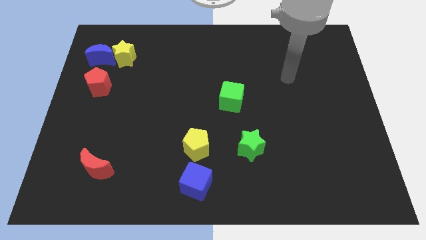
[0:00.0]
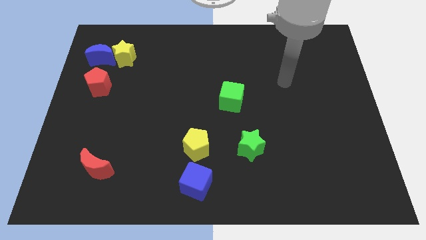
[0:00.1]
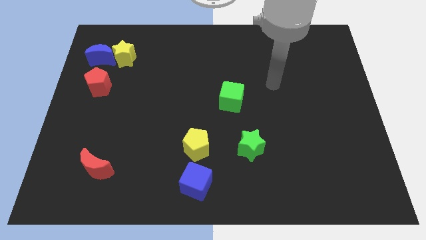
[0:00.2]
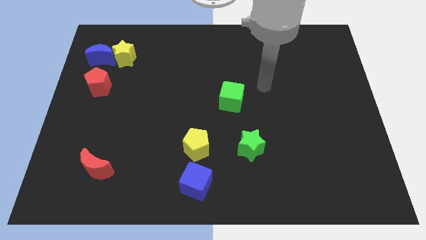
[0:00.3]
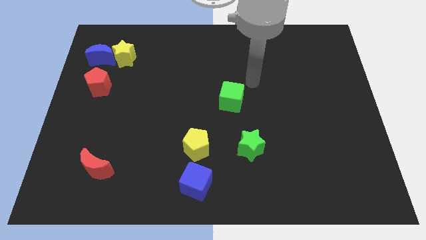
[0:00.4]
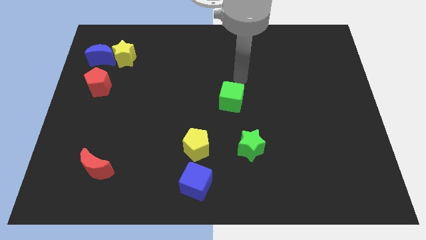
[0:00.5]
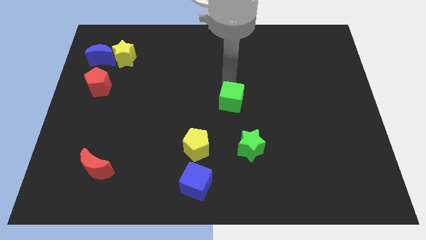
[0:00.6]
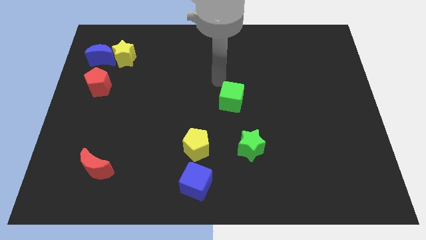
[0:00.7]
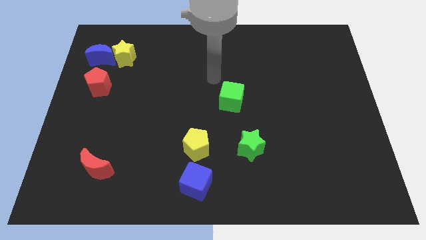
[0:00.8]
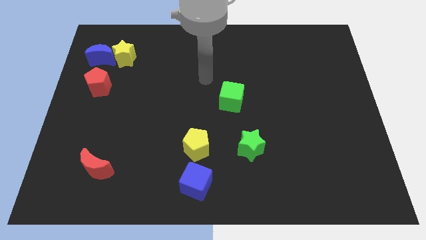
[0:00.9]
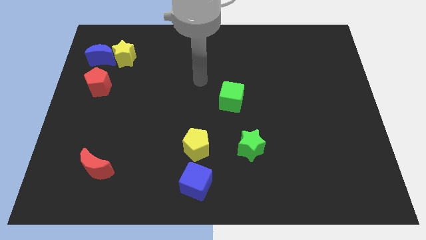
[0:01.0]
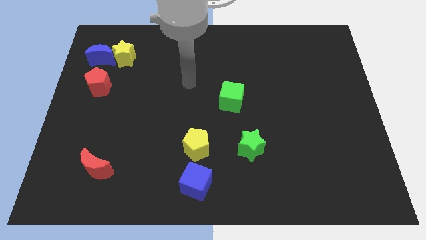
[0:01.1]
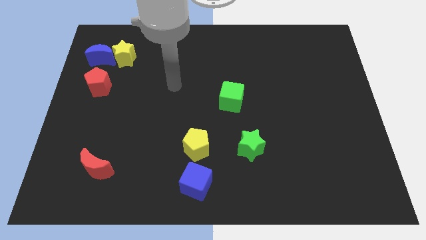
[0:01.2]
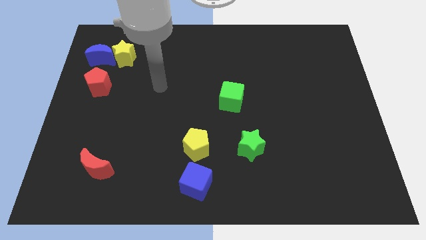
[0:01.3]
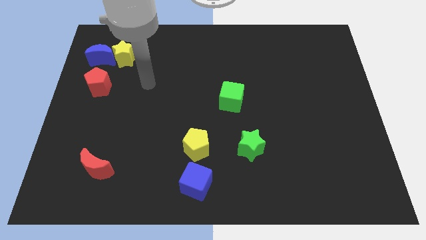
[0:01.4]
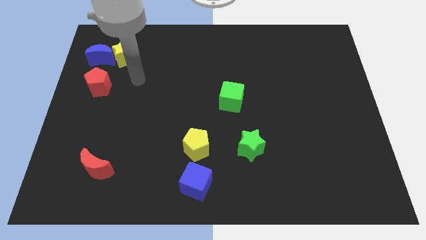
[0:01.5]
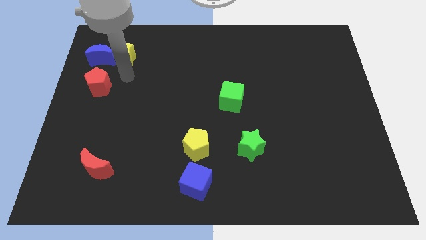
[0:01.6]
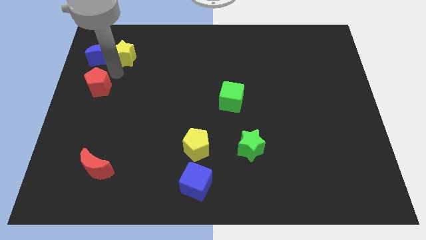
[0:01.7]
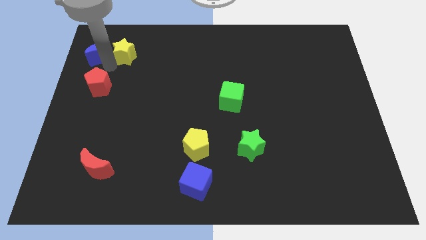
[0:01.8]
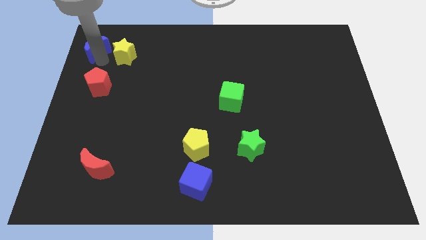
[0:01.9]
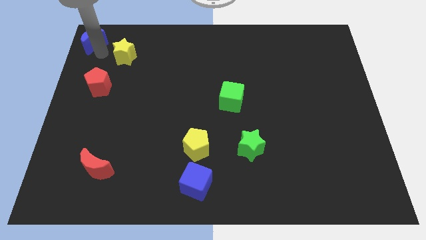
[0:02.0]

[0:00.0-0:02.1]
move the yellow star away from the blue moon

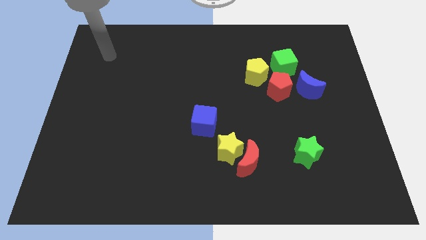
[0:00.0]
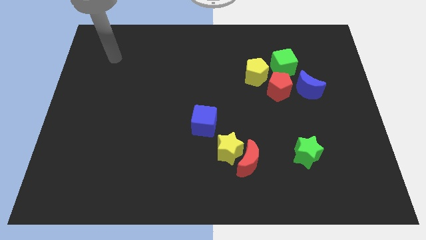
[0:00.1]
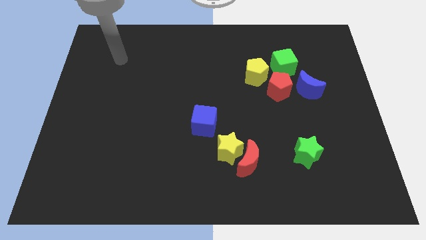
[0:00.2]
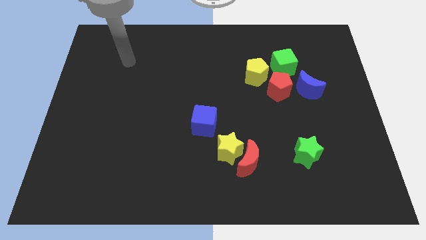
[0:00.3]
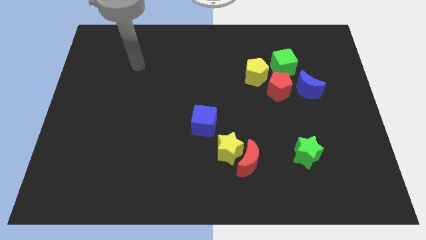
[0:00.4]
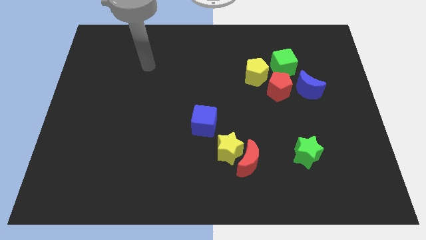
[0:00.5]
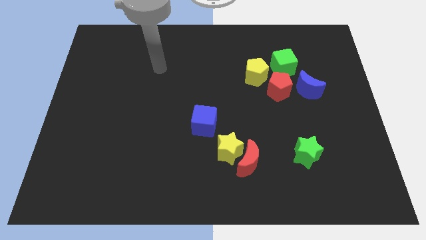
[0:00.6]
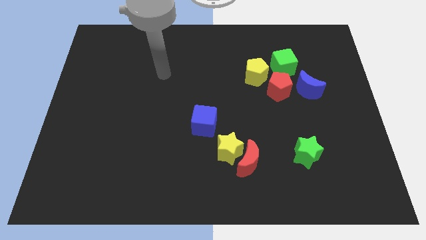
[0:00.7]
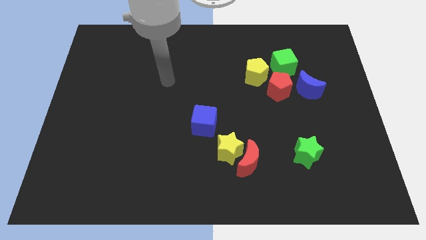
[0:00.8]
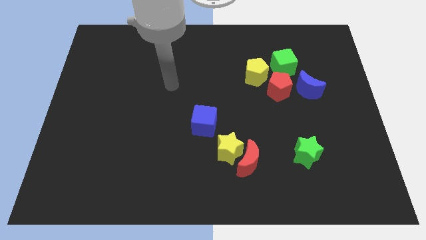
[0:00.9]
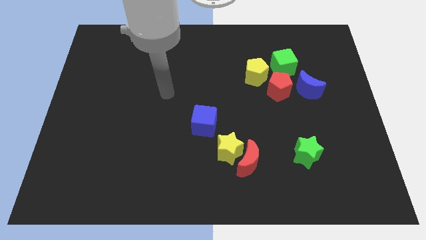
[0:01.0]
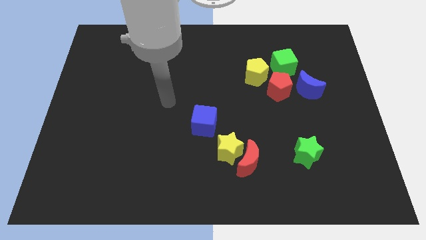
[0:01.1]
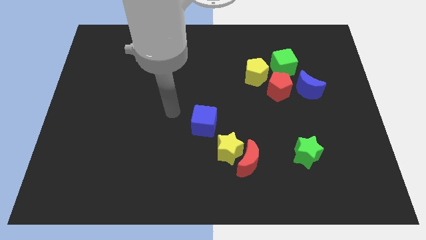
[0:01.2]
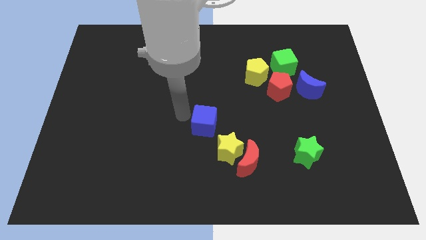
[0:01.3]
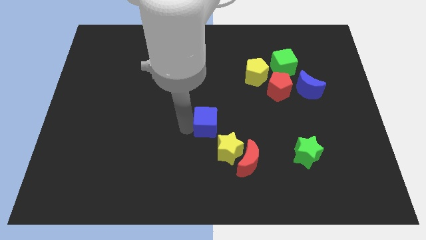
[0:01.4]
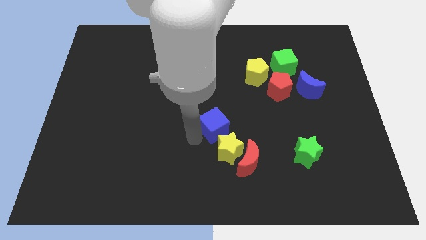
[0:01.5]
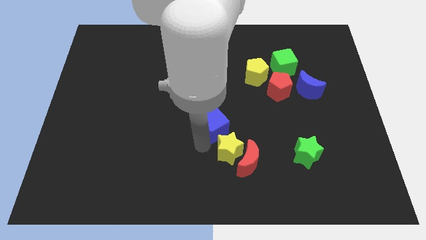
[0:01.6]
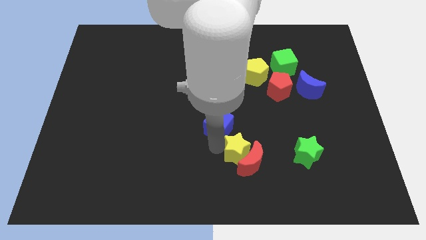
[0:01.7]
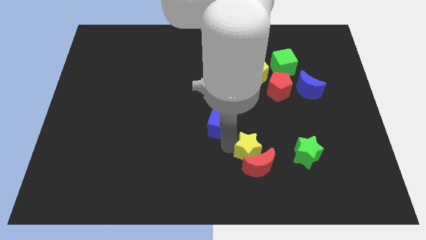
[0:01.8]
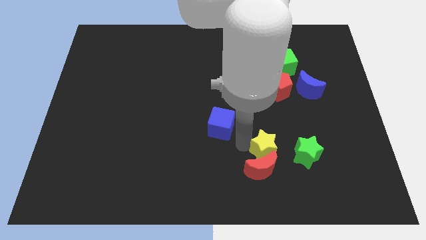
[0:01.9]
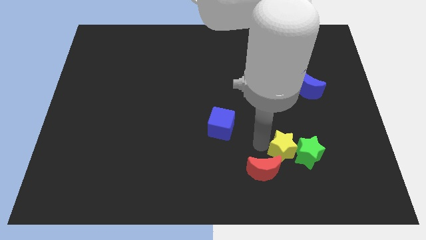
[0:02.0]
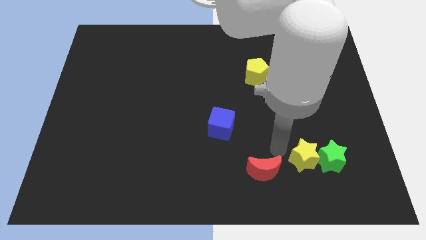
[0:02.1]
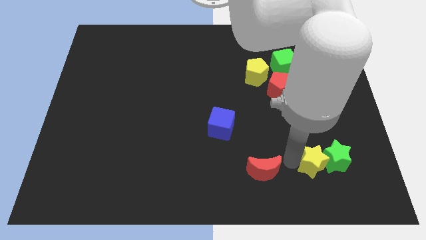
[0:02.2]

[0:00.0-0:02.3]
pull the red moon apart from the yellow star

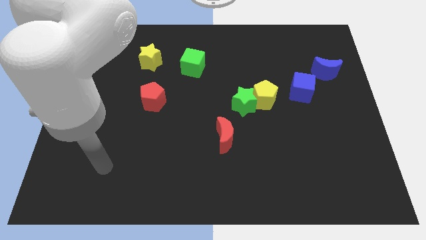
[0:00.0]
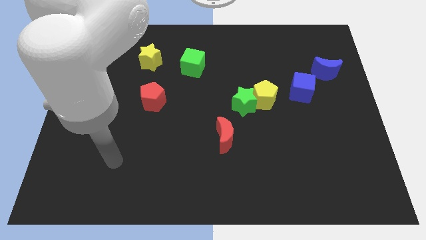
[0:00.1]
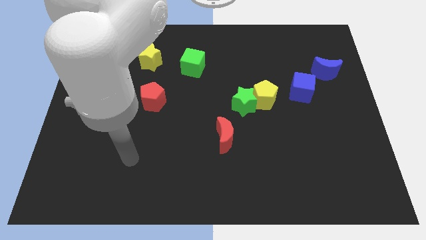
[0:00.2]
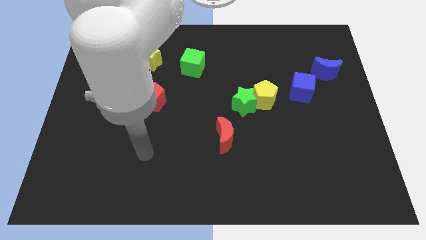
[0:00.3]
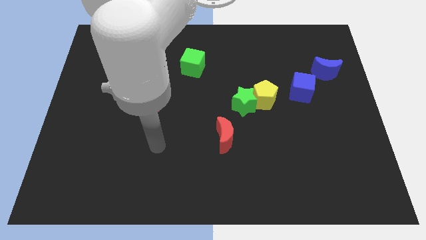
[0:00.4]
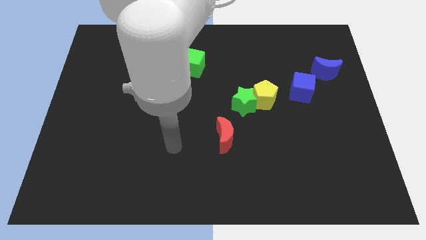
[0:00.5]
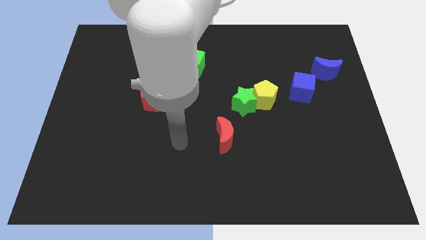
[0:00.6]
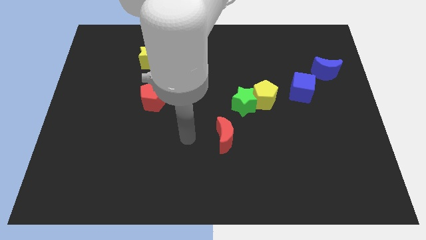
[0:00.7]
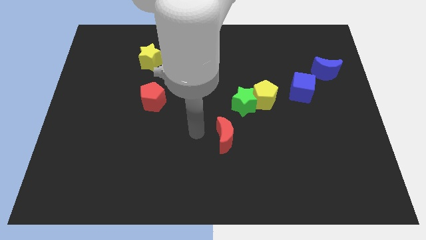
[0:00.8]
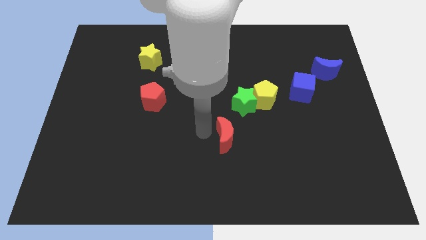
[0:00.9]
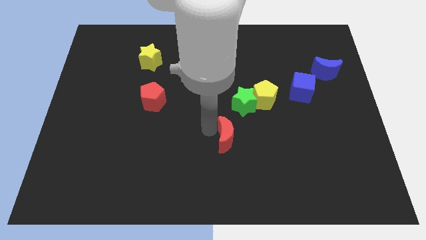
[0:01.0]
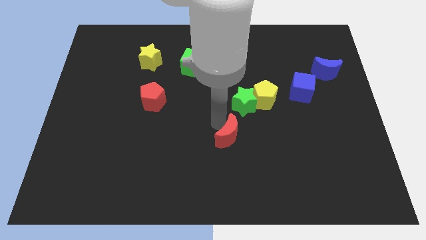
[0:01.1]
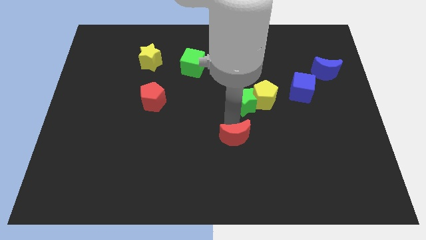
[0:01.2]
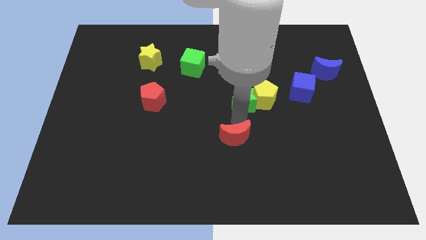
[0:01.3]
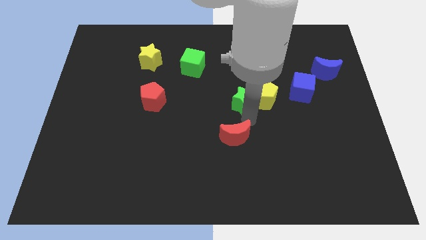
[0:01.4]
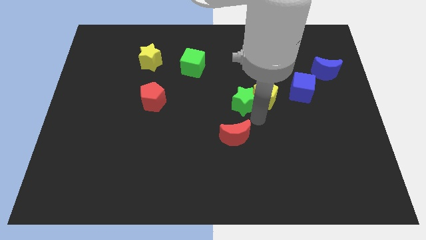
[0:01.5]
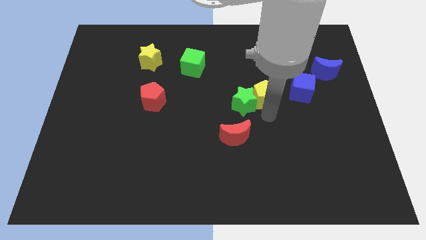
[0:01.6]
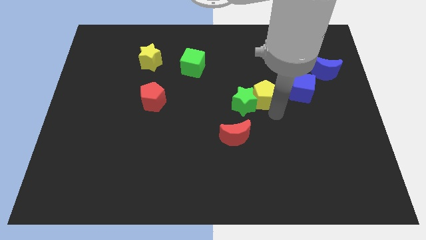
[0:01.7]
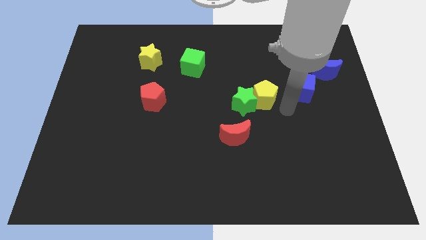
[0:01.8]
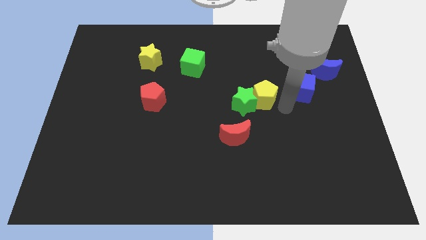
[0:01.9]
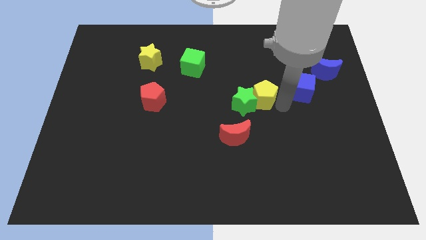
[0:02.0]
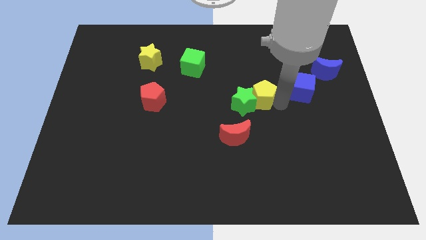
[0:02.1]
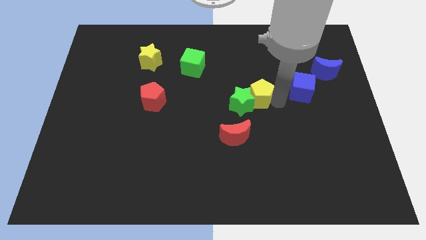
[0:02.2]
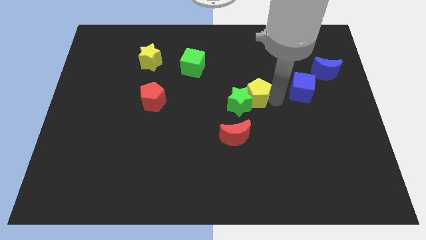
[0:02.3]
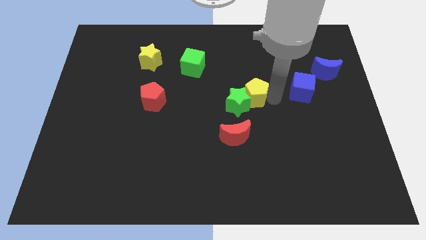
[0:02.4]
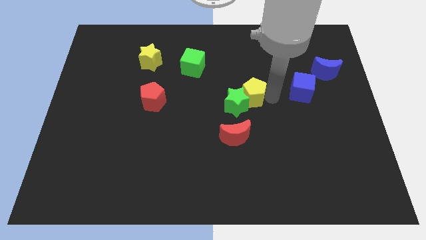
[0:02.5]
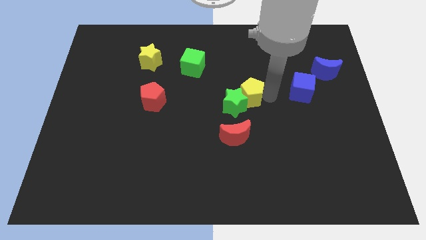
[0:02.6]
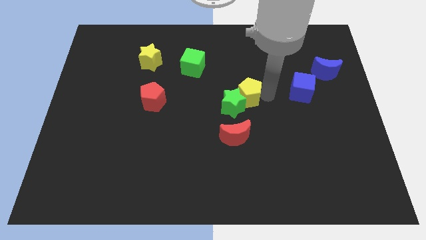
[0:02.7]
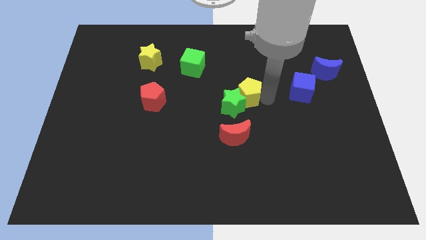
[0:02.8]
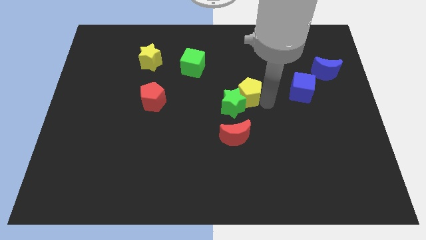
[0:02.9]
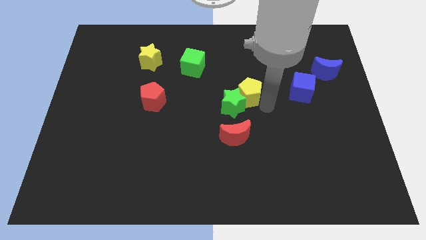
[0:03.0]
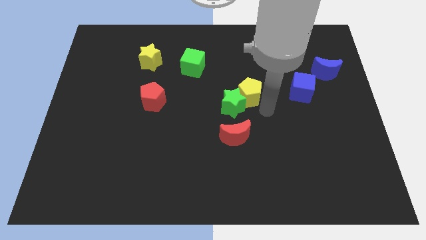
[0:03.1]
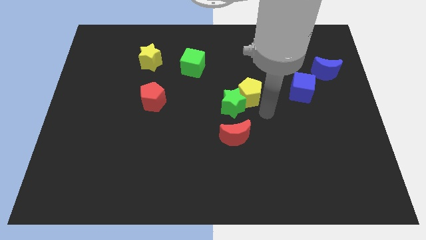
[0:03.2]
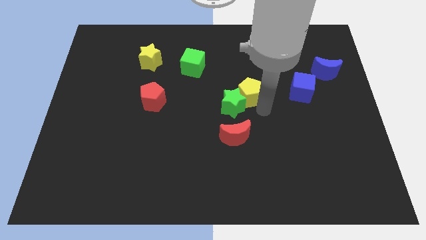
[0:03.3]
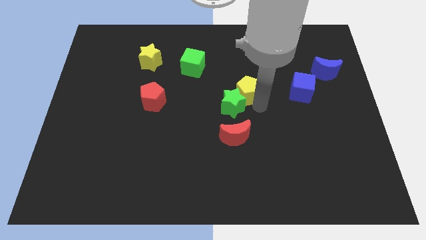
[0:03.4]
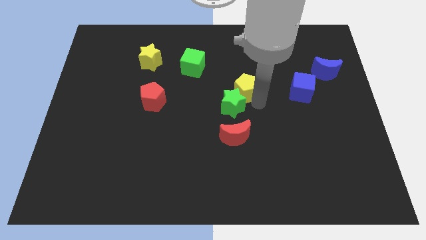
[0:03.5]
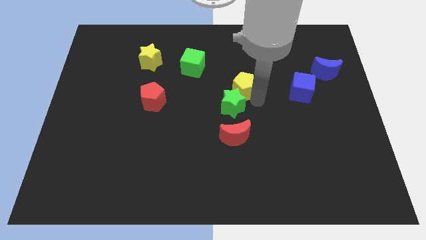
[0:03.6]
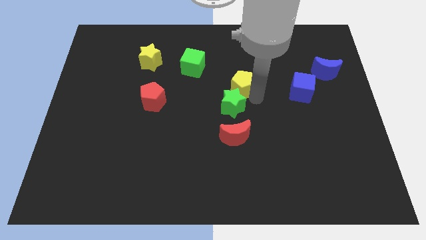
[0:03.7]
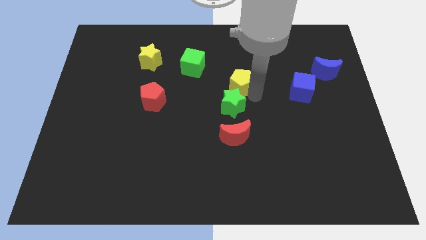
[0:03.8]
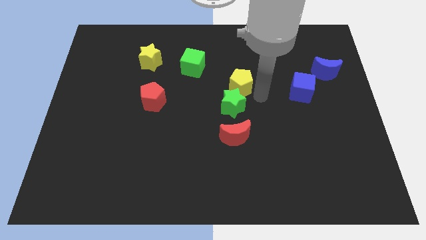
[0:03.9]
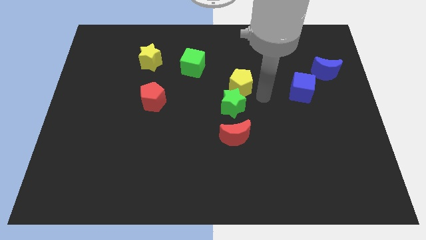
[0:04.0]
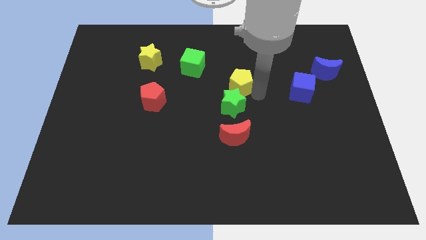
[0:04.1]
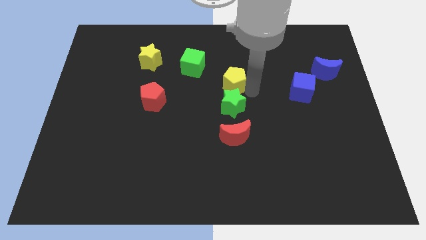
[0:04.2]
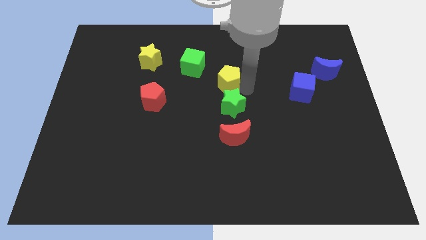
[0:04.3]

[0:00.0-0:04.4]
pull the yellow pentagon apart from the green star and blue cube

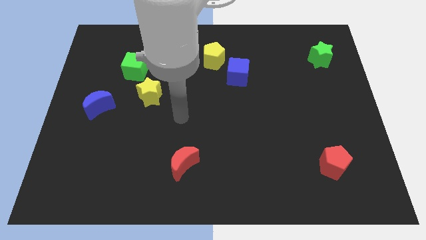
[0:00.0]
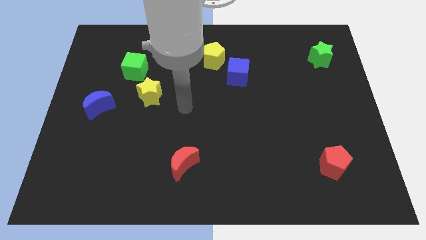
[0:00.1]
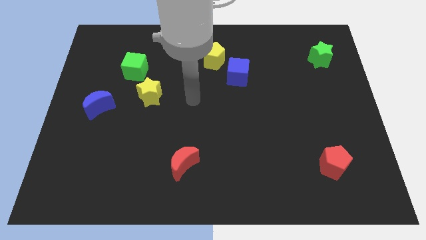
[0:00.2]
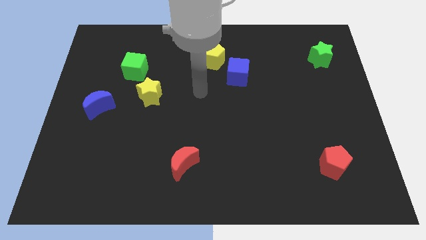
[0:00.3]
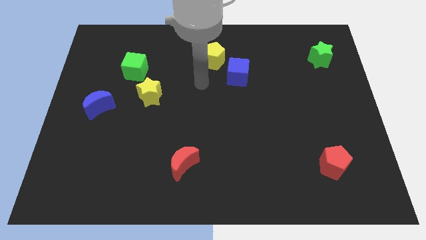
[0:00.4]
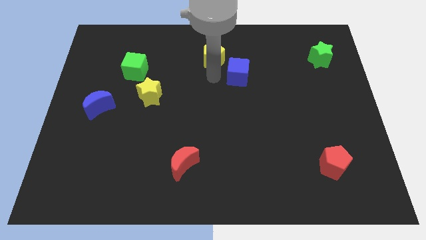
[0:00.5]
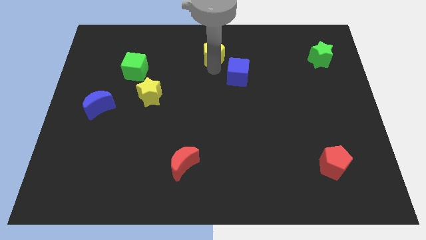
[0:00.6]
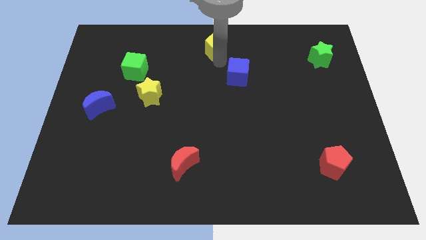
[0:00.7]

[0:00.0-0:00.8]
separate the blue cube from the yellow pentagon
